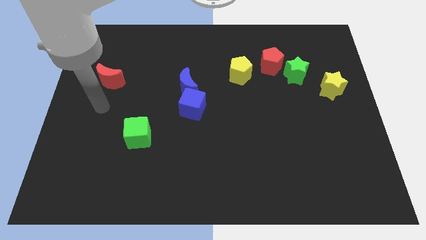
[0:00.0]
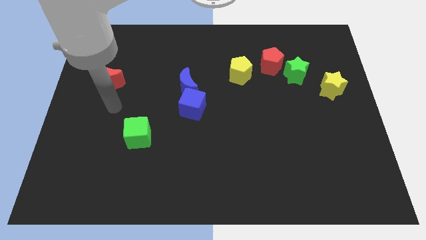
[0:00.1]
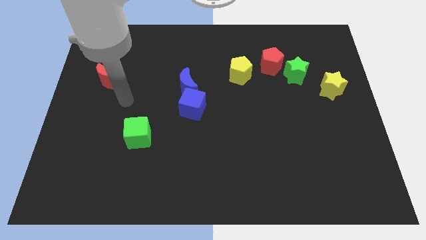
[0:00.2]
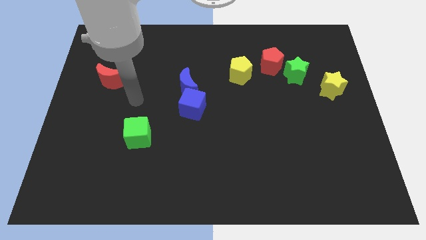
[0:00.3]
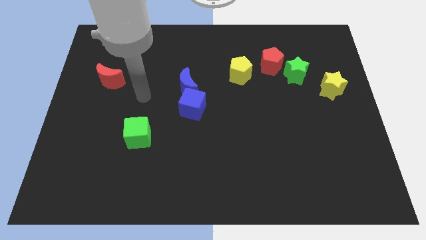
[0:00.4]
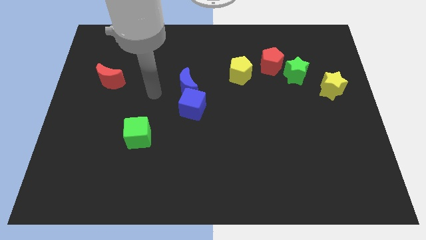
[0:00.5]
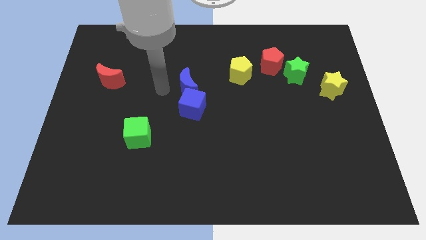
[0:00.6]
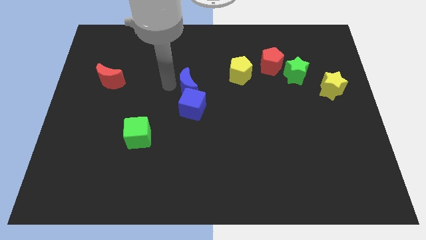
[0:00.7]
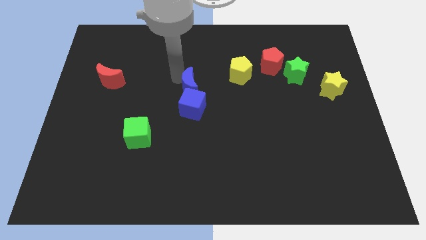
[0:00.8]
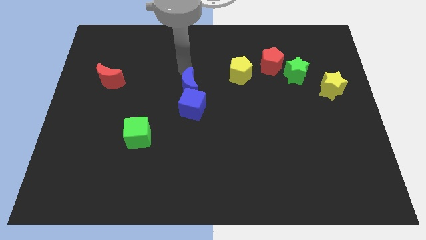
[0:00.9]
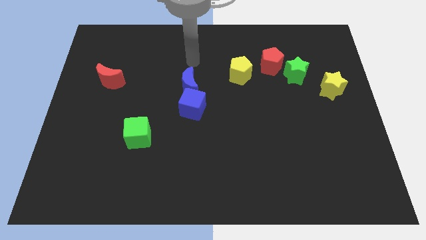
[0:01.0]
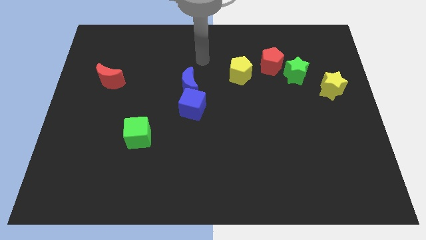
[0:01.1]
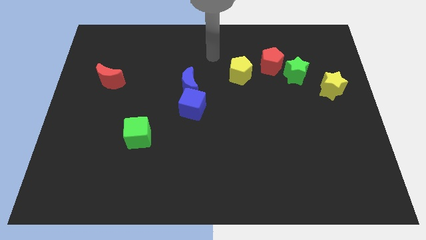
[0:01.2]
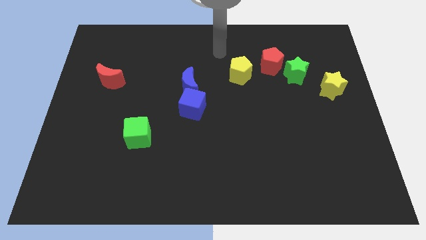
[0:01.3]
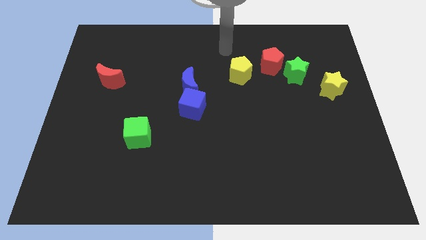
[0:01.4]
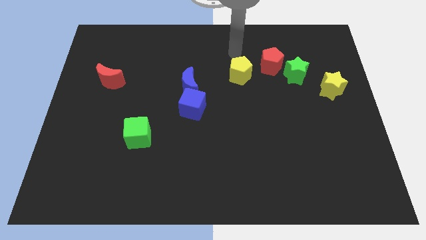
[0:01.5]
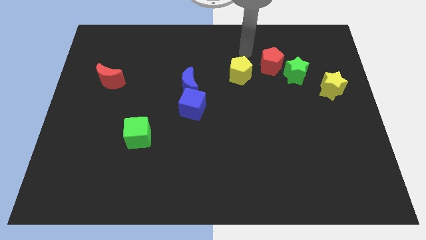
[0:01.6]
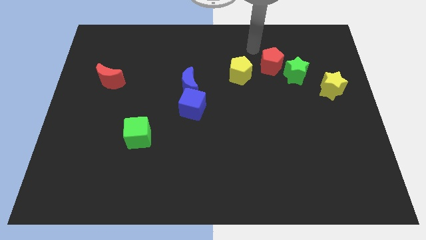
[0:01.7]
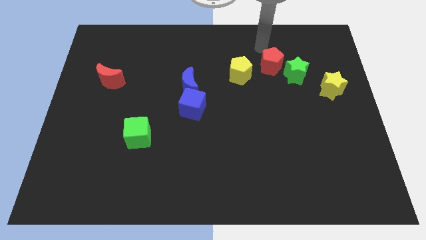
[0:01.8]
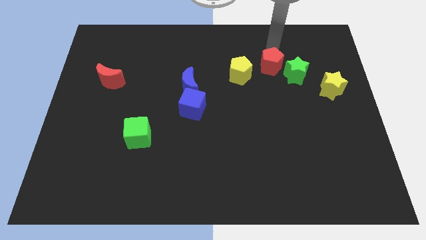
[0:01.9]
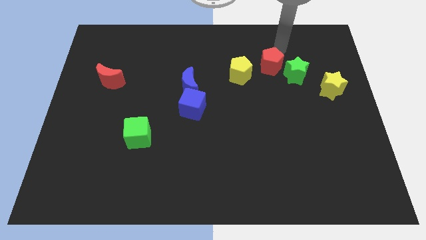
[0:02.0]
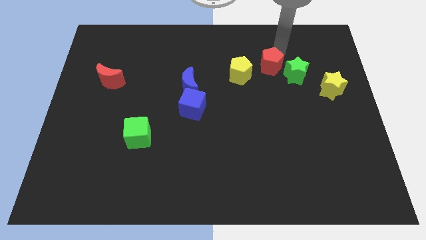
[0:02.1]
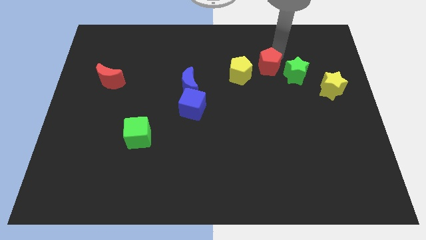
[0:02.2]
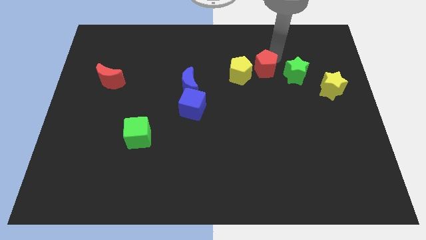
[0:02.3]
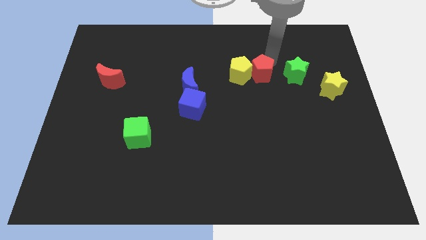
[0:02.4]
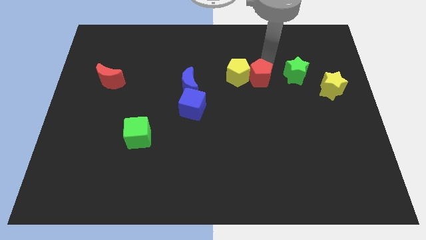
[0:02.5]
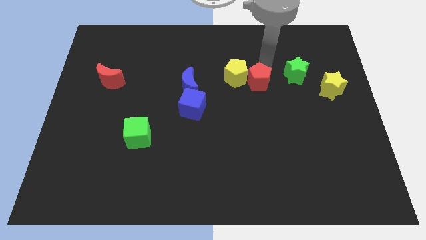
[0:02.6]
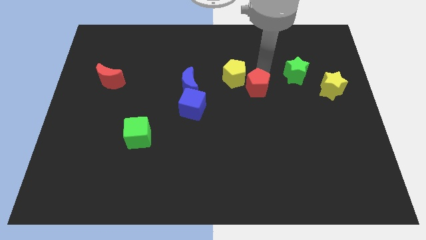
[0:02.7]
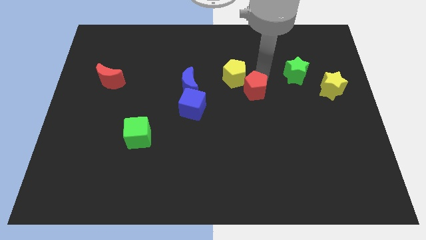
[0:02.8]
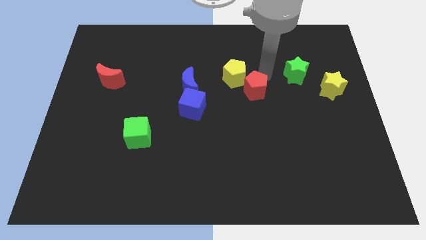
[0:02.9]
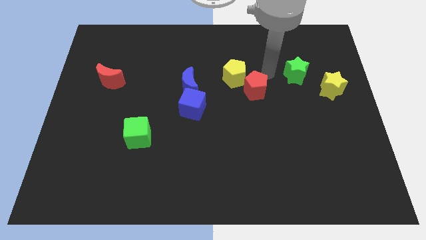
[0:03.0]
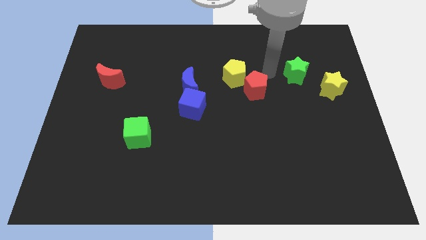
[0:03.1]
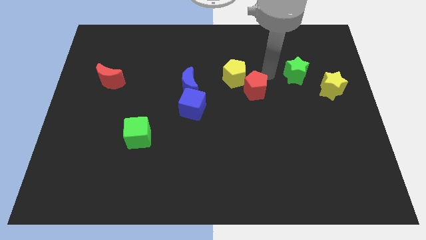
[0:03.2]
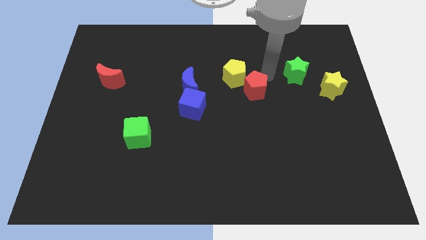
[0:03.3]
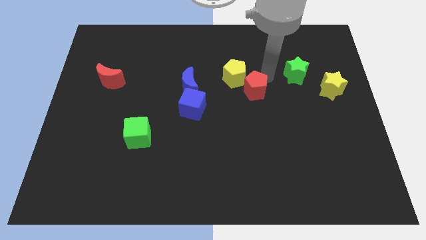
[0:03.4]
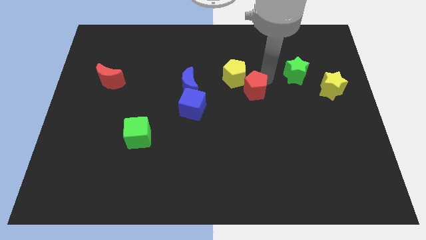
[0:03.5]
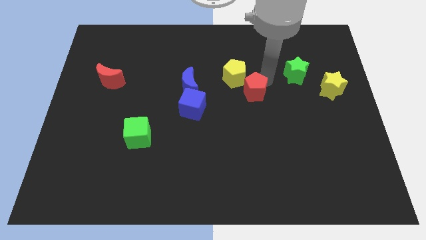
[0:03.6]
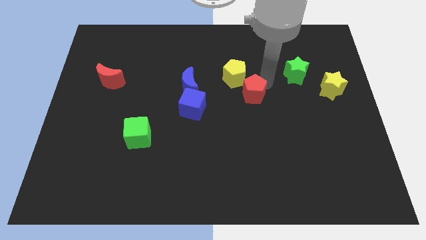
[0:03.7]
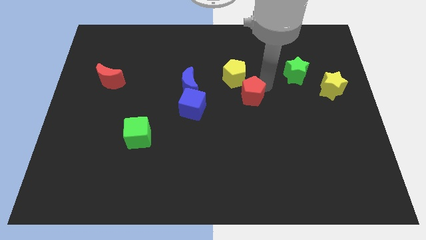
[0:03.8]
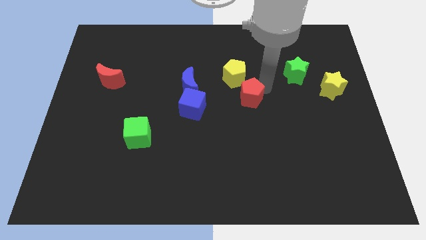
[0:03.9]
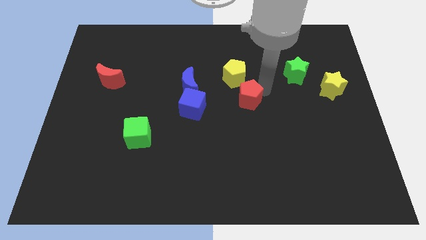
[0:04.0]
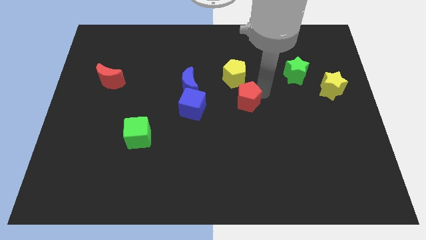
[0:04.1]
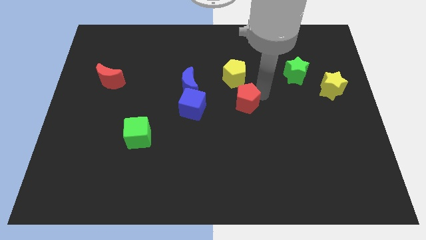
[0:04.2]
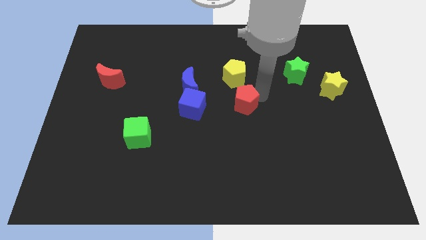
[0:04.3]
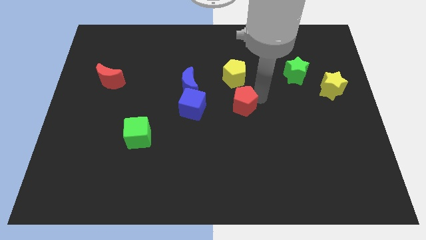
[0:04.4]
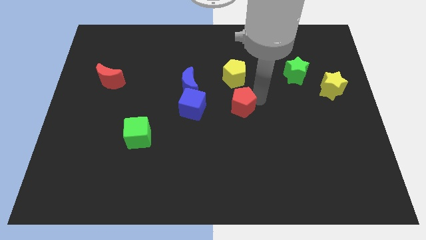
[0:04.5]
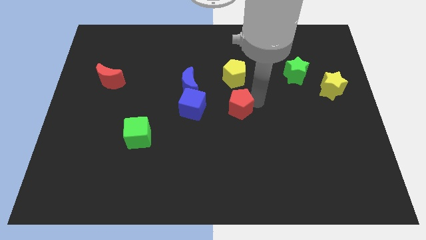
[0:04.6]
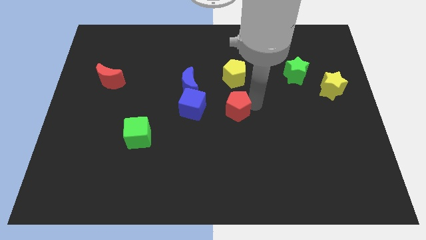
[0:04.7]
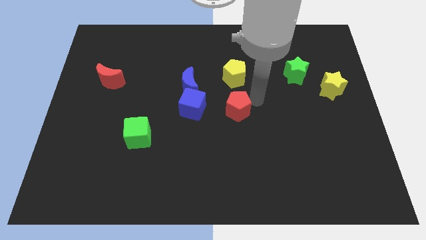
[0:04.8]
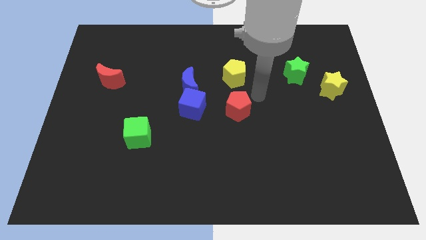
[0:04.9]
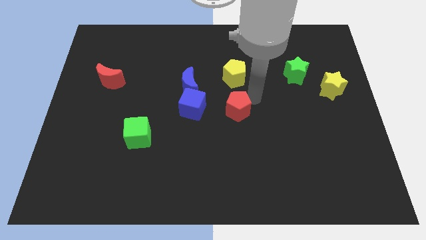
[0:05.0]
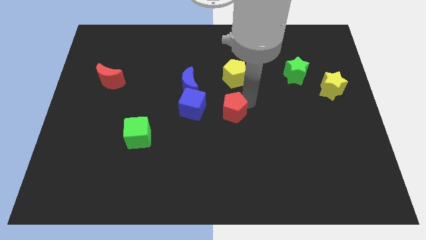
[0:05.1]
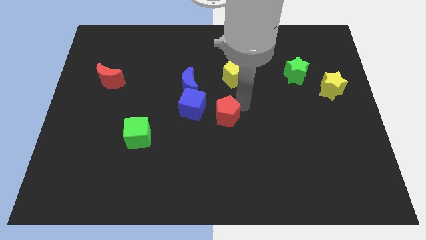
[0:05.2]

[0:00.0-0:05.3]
slide the red pentagon diagonally down and to the right of the blue cube

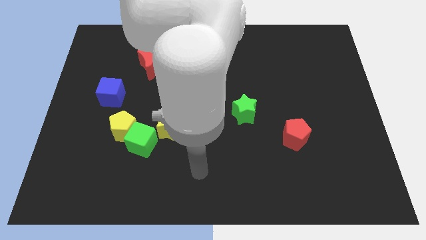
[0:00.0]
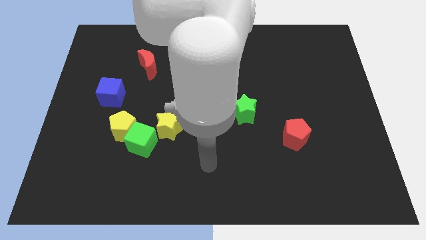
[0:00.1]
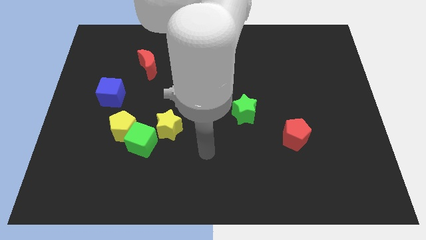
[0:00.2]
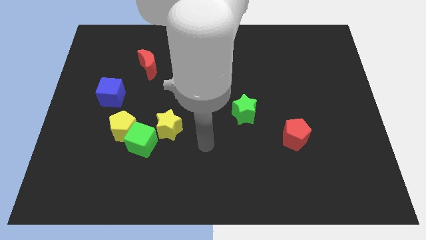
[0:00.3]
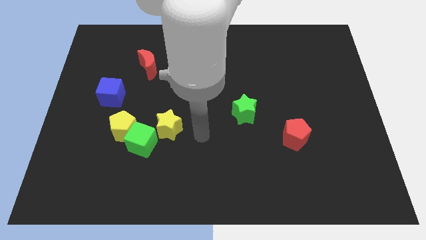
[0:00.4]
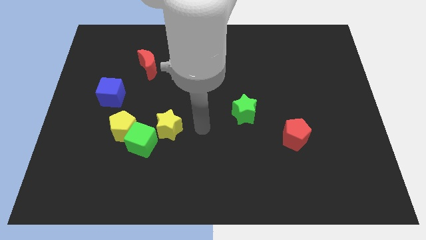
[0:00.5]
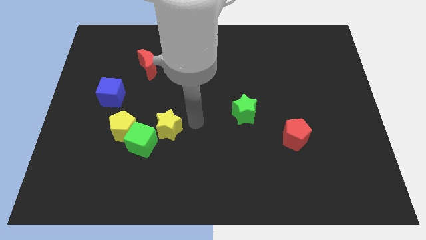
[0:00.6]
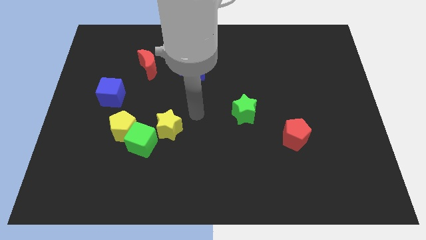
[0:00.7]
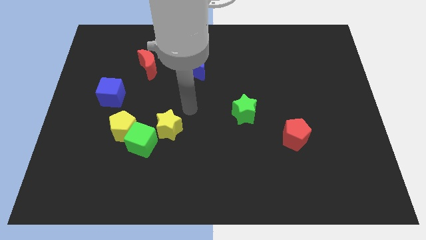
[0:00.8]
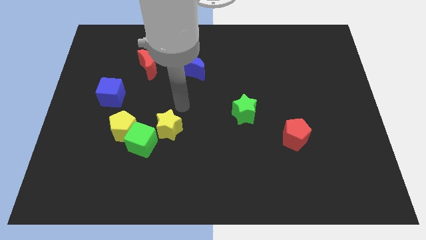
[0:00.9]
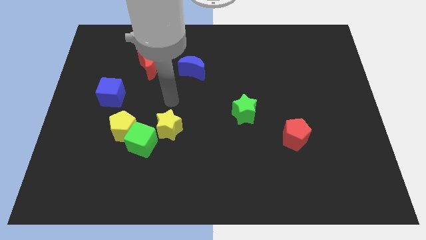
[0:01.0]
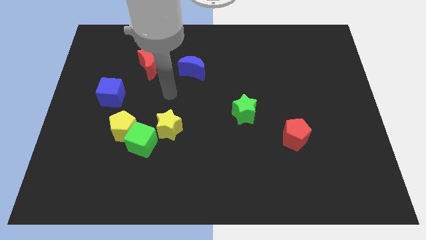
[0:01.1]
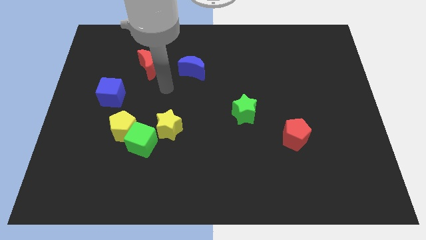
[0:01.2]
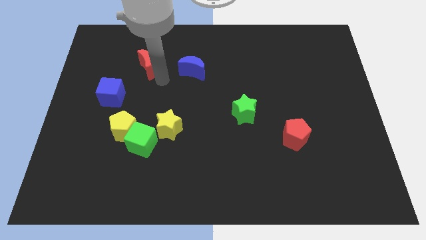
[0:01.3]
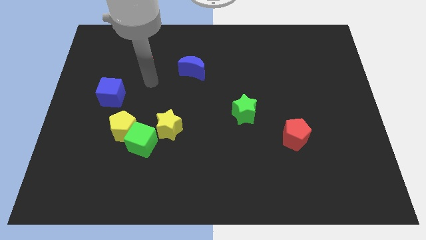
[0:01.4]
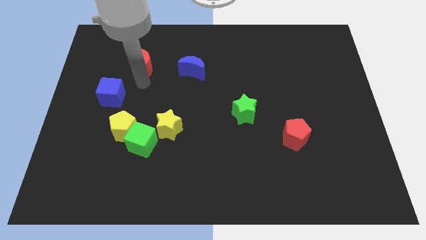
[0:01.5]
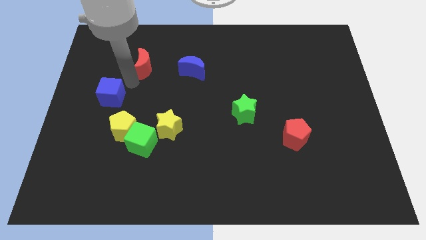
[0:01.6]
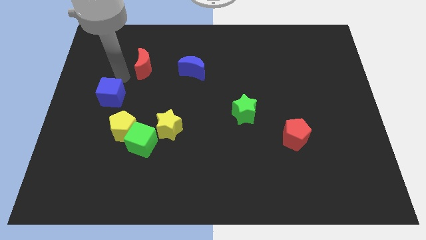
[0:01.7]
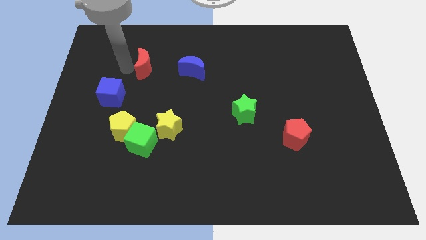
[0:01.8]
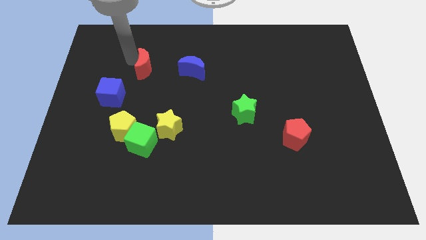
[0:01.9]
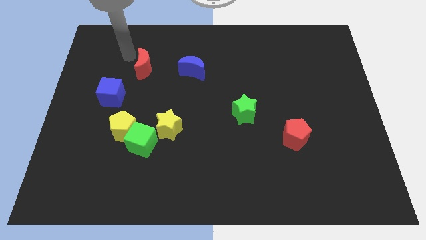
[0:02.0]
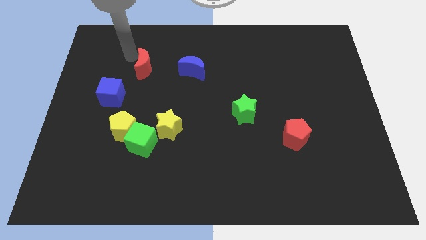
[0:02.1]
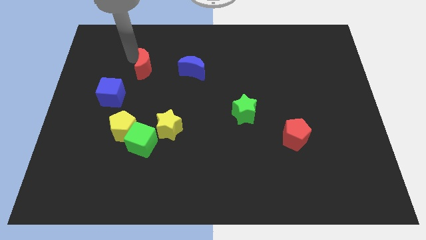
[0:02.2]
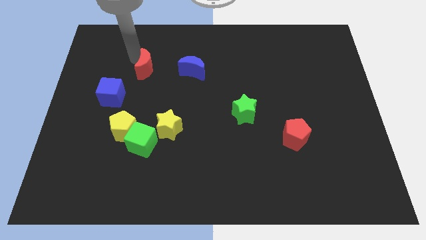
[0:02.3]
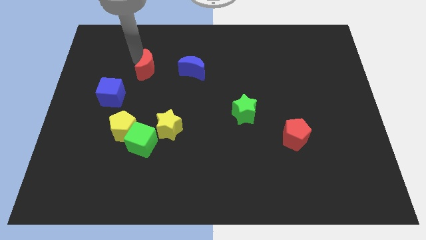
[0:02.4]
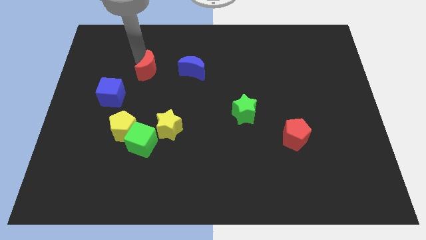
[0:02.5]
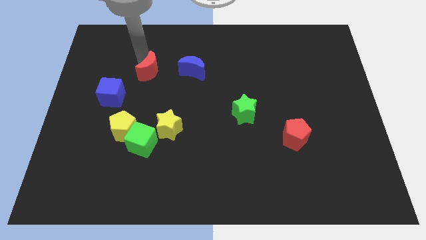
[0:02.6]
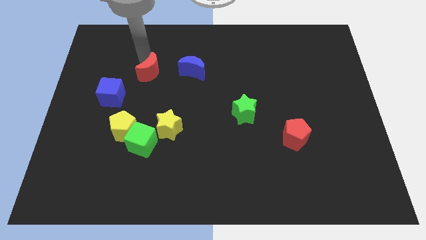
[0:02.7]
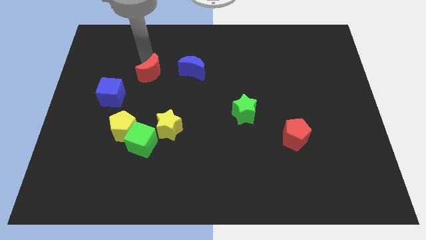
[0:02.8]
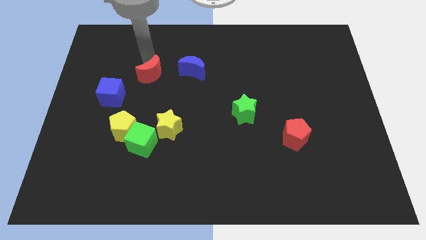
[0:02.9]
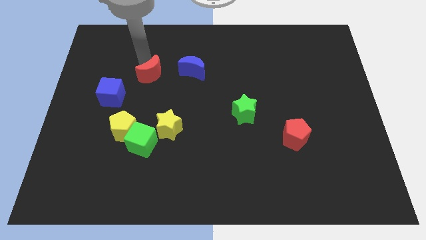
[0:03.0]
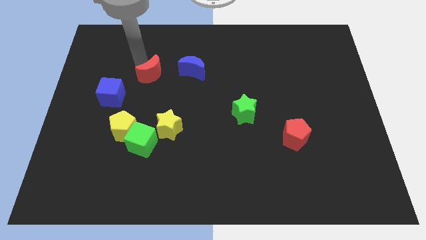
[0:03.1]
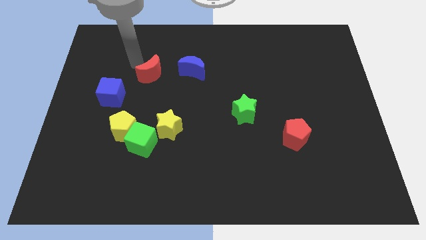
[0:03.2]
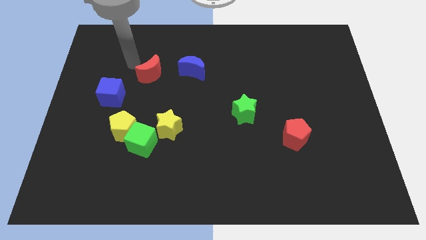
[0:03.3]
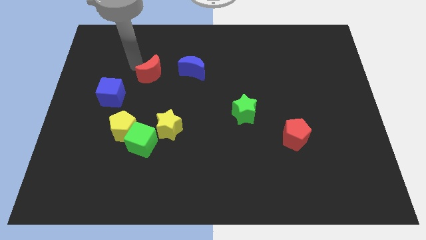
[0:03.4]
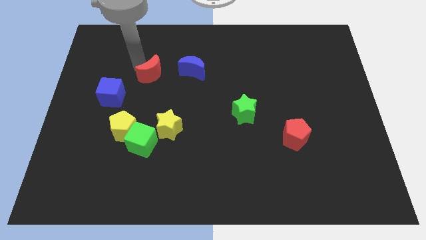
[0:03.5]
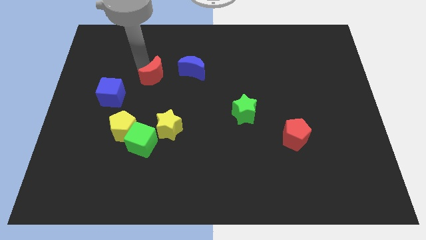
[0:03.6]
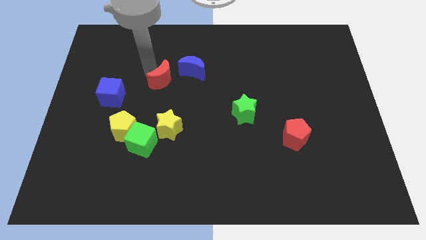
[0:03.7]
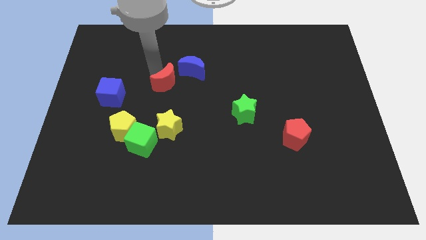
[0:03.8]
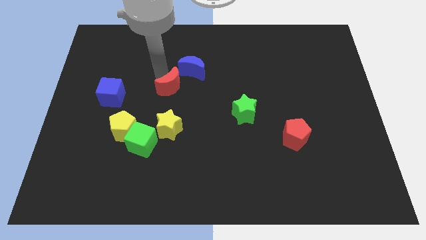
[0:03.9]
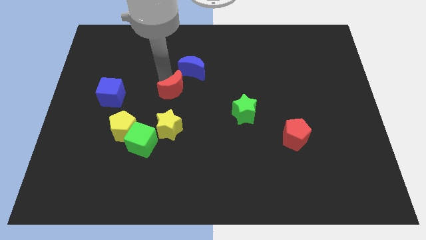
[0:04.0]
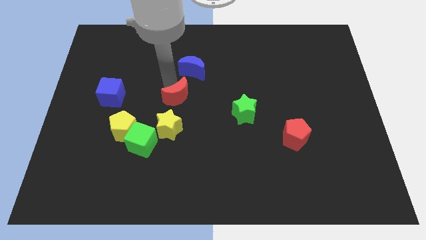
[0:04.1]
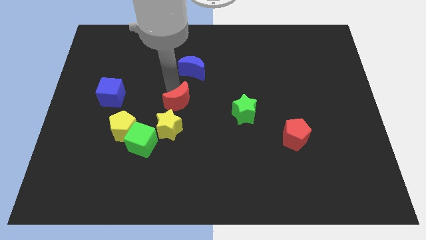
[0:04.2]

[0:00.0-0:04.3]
slide the red moon to the top right of the yellow star
